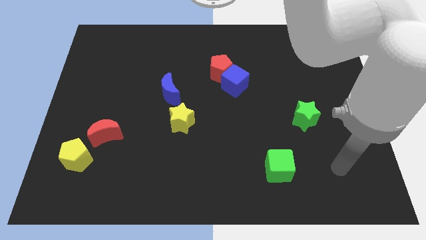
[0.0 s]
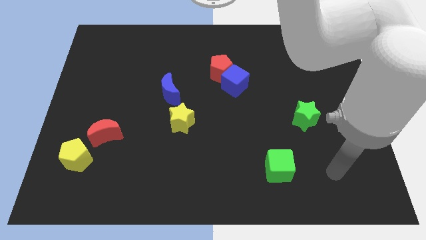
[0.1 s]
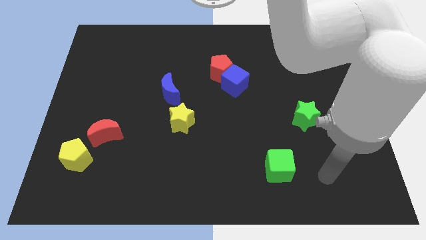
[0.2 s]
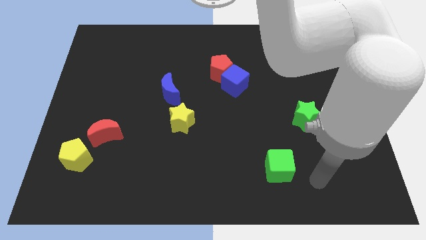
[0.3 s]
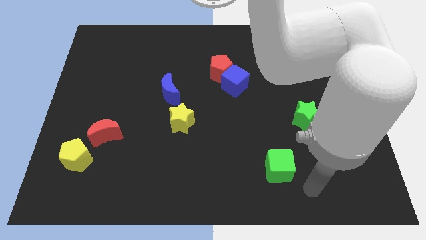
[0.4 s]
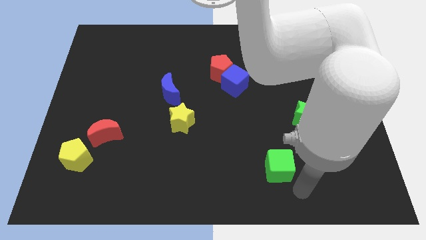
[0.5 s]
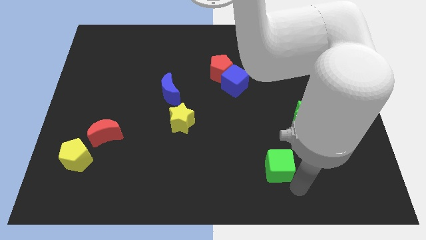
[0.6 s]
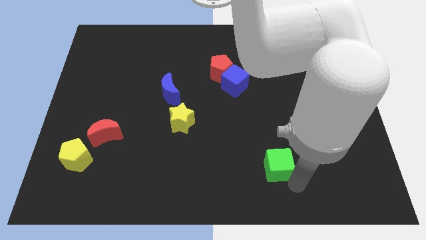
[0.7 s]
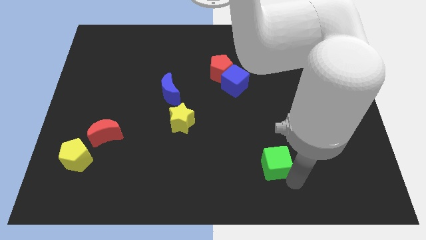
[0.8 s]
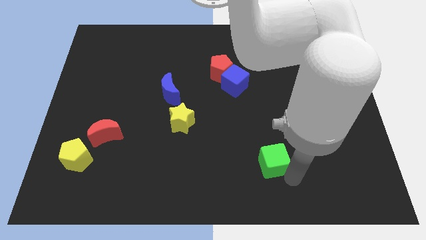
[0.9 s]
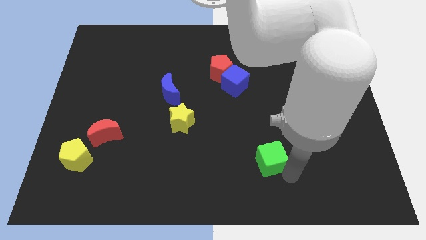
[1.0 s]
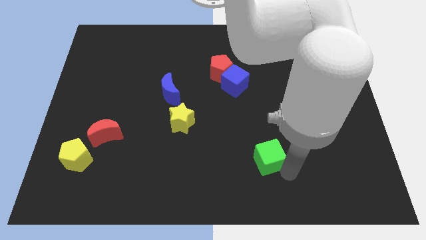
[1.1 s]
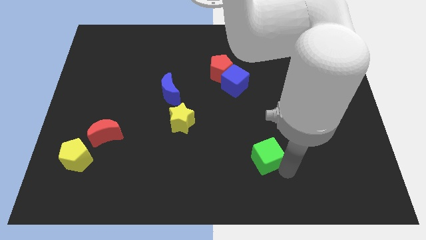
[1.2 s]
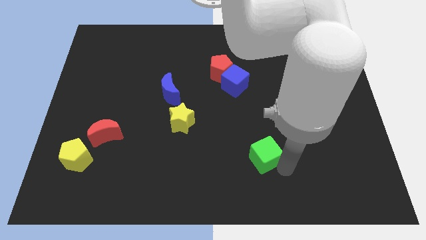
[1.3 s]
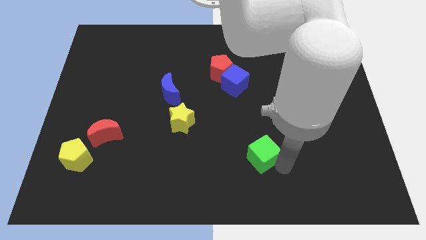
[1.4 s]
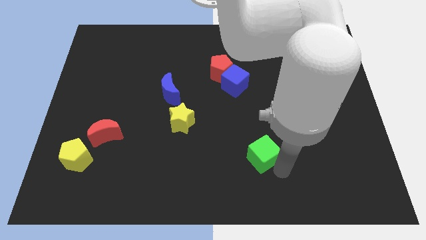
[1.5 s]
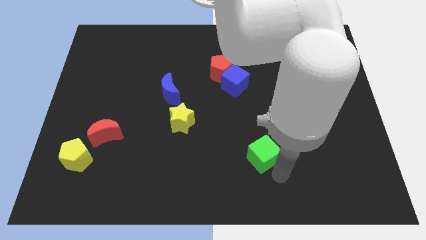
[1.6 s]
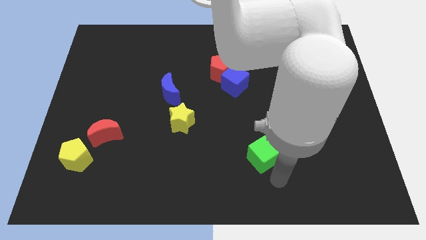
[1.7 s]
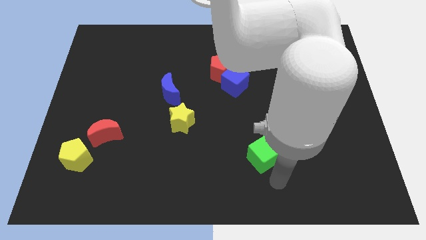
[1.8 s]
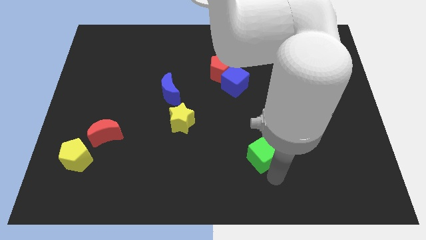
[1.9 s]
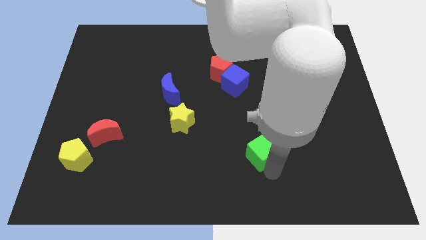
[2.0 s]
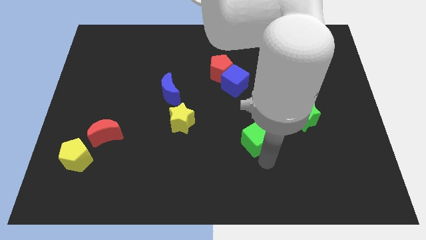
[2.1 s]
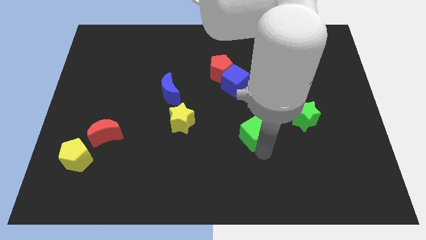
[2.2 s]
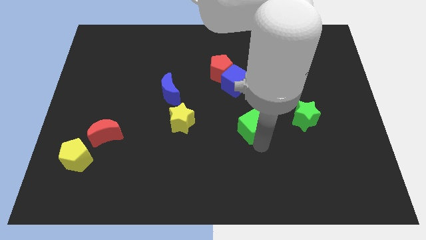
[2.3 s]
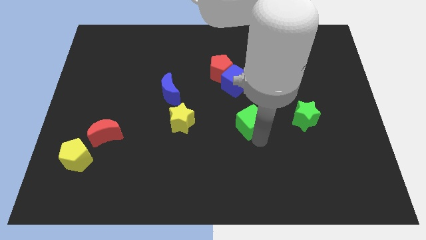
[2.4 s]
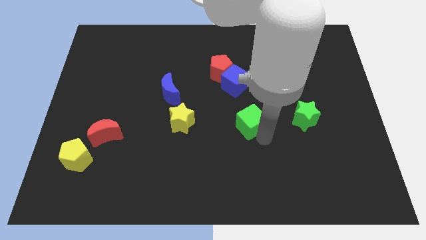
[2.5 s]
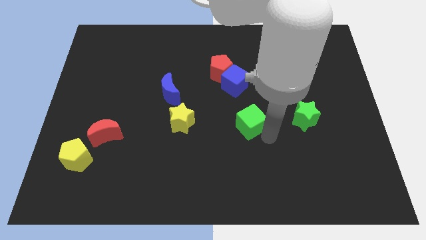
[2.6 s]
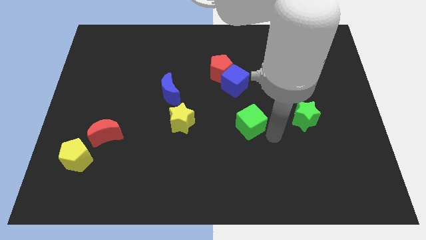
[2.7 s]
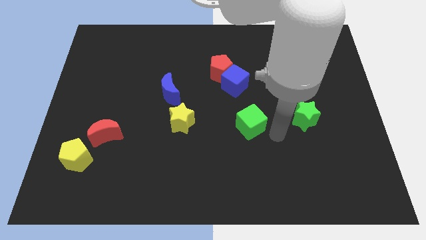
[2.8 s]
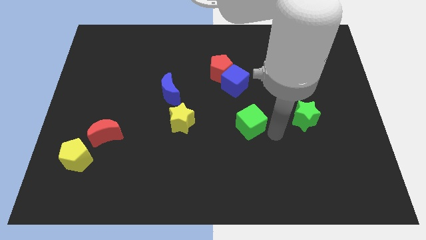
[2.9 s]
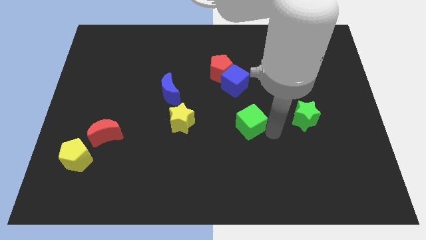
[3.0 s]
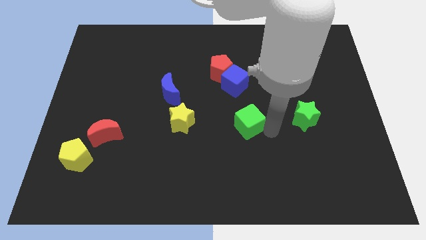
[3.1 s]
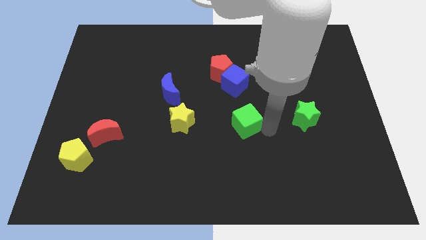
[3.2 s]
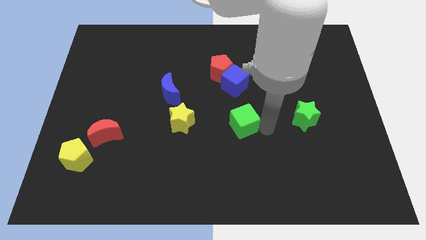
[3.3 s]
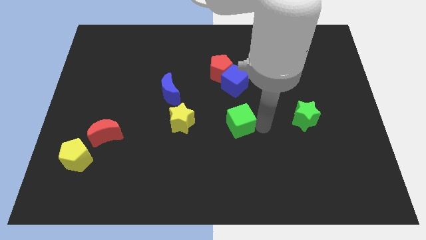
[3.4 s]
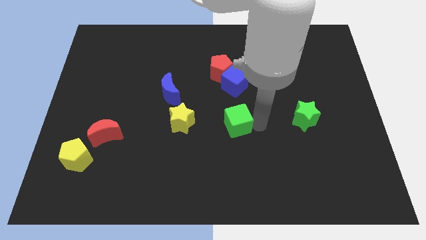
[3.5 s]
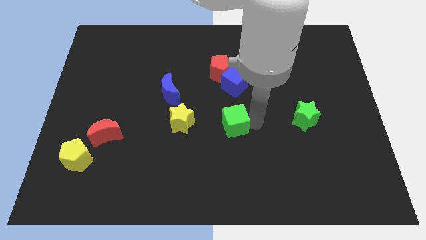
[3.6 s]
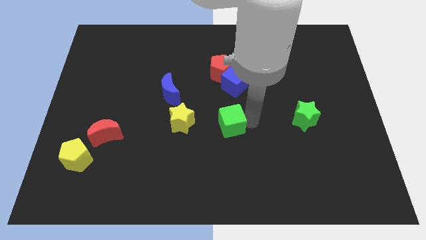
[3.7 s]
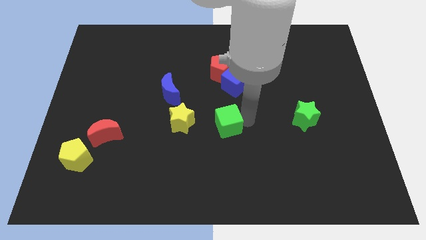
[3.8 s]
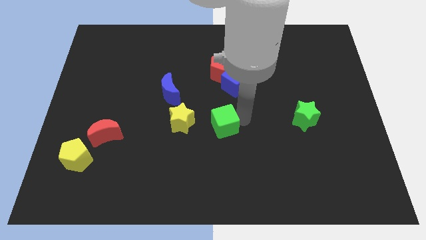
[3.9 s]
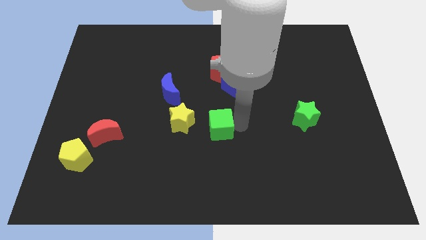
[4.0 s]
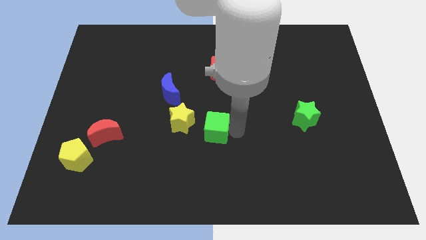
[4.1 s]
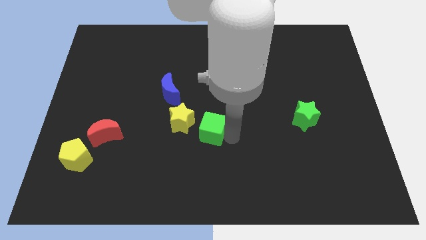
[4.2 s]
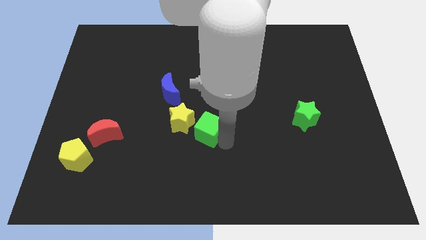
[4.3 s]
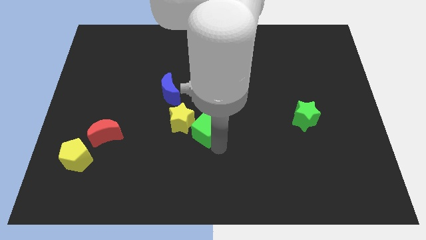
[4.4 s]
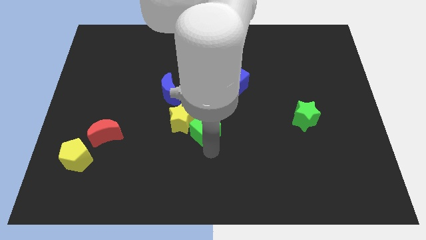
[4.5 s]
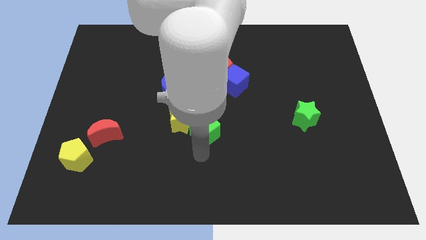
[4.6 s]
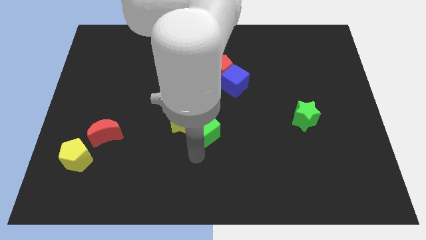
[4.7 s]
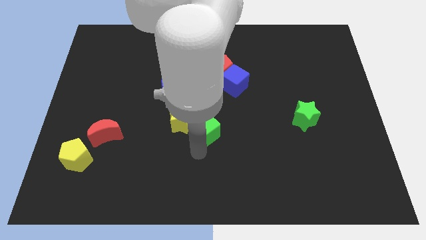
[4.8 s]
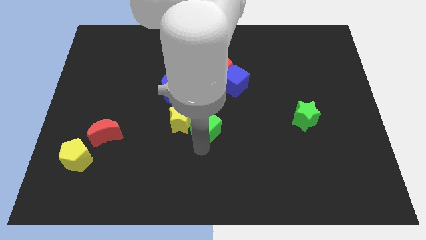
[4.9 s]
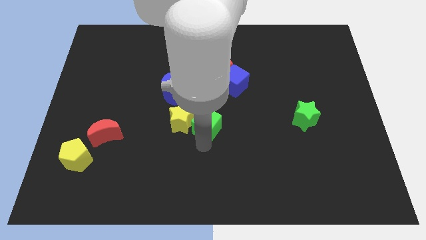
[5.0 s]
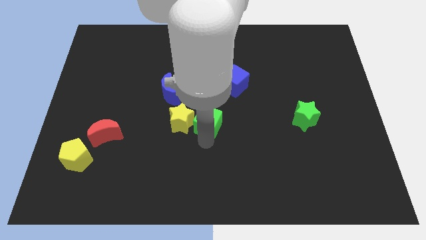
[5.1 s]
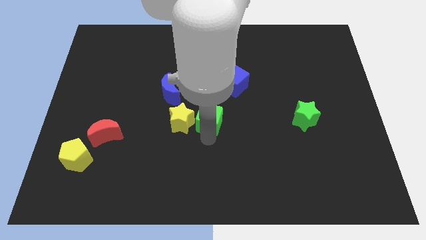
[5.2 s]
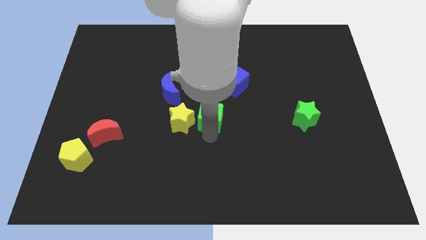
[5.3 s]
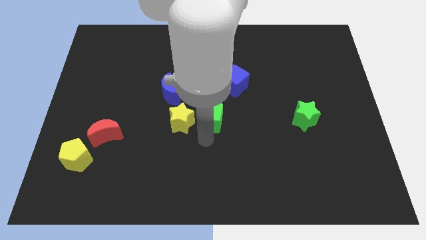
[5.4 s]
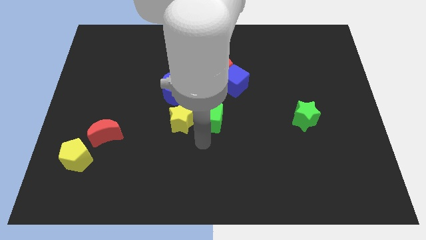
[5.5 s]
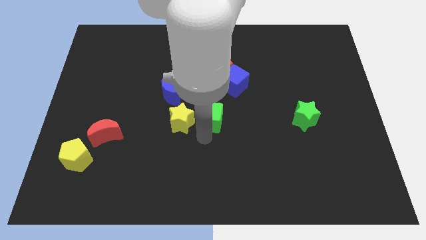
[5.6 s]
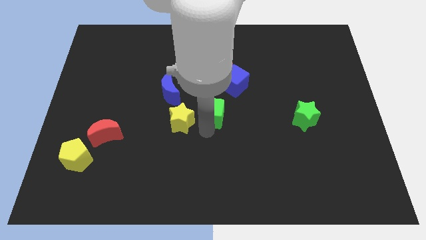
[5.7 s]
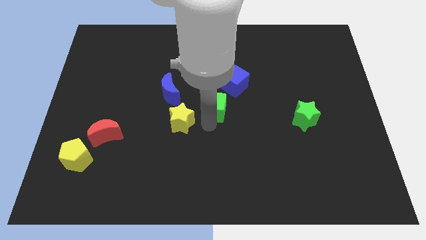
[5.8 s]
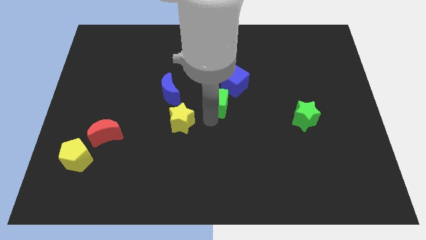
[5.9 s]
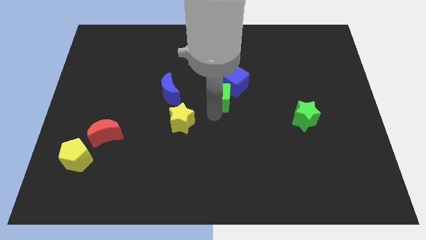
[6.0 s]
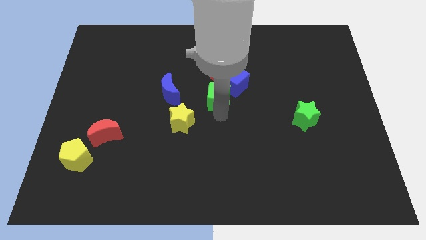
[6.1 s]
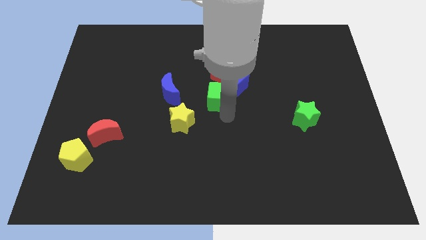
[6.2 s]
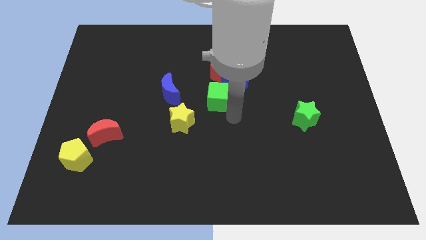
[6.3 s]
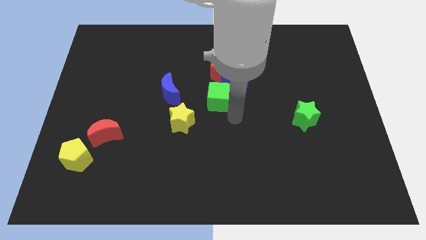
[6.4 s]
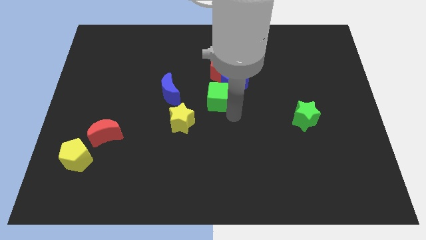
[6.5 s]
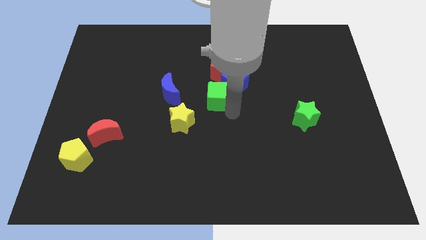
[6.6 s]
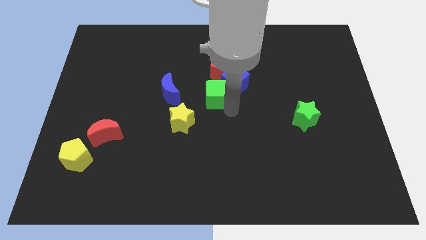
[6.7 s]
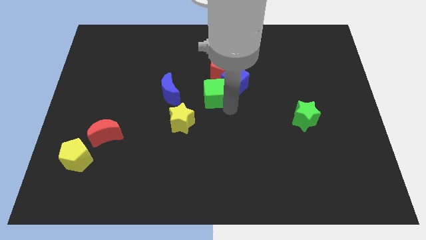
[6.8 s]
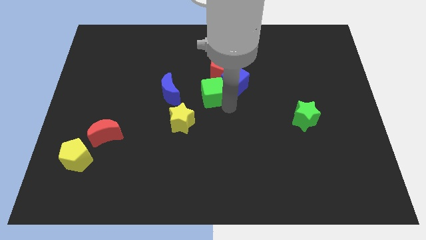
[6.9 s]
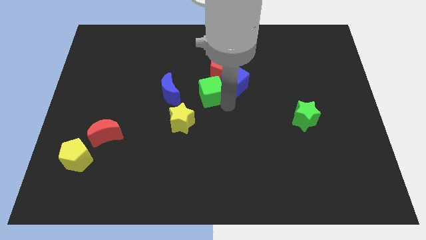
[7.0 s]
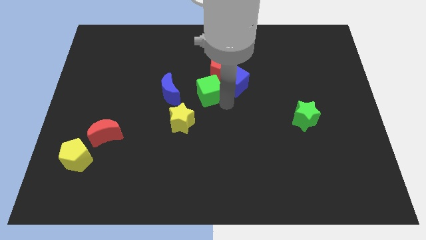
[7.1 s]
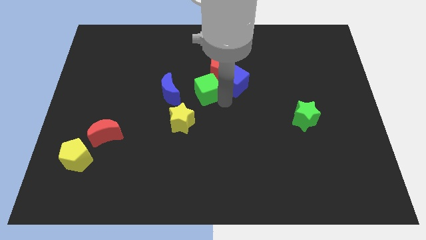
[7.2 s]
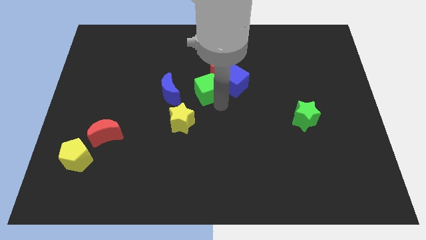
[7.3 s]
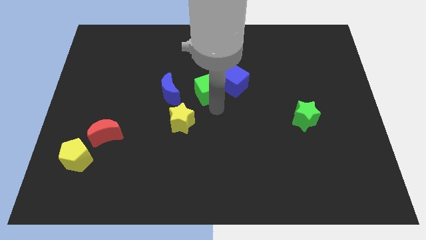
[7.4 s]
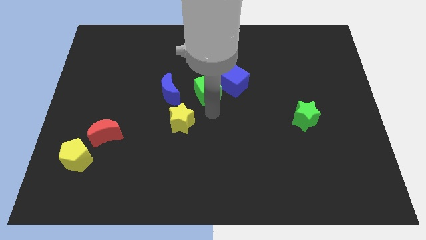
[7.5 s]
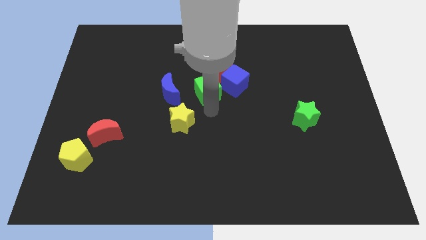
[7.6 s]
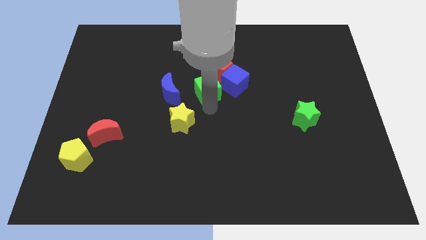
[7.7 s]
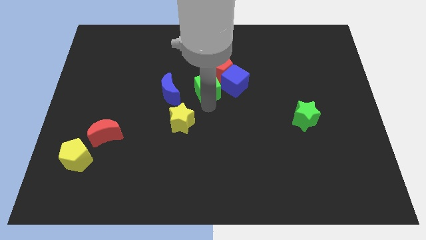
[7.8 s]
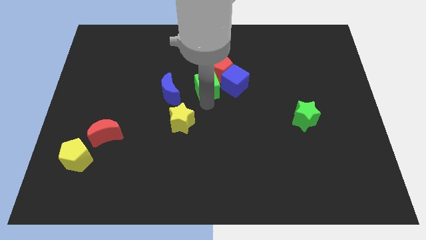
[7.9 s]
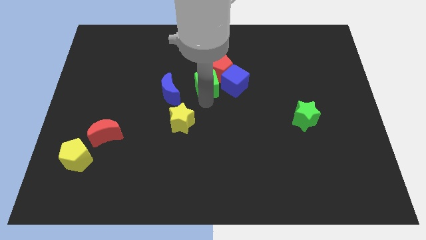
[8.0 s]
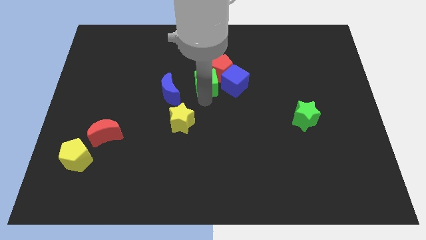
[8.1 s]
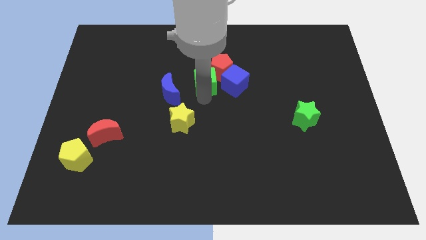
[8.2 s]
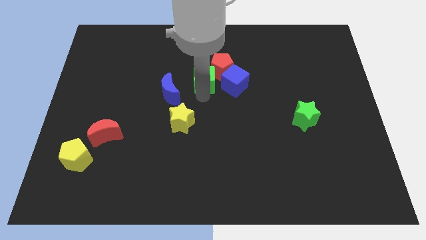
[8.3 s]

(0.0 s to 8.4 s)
move the green cube to the top left of the blue cube
